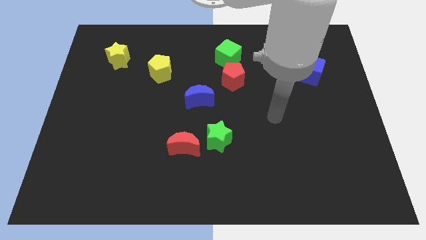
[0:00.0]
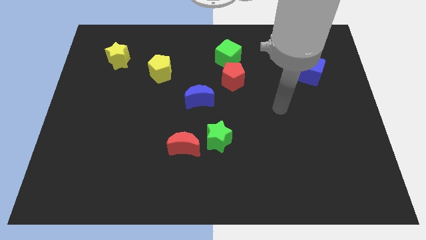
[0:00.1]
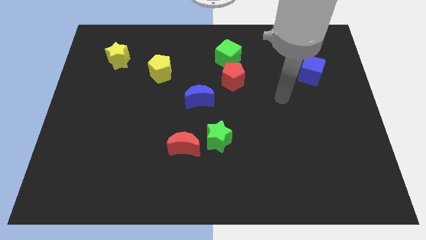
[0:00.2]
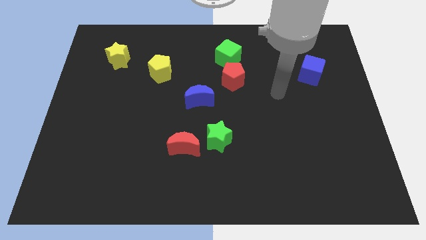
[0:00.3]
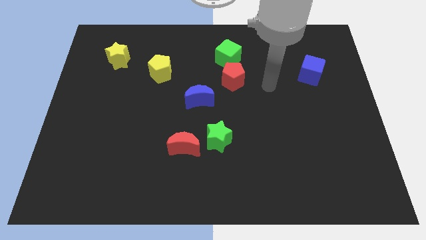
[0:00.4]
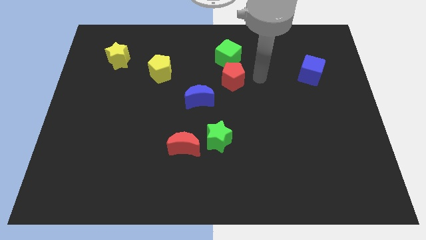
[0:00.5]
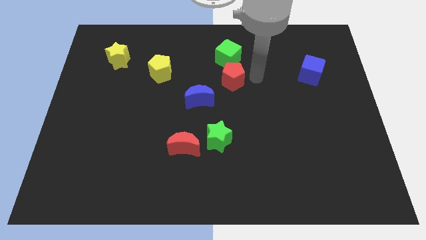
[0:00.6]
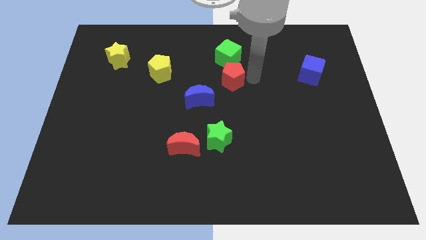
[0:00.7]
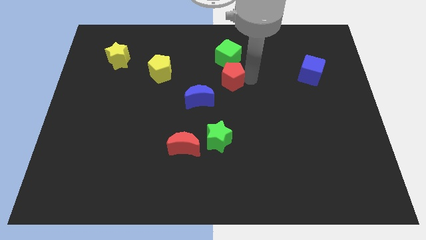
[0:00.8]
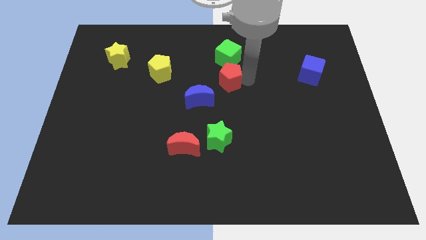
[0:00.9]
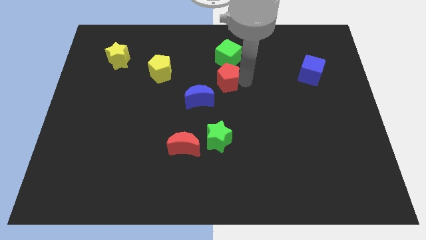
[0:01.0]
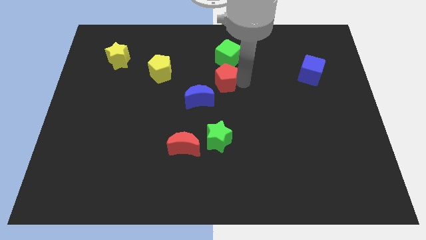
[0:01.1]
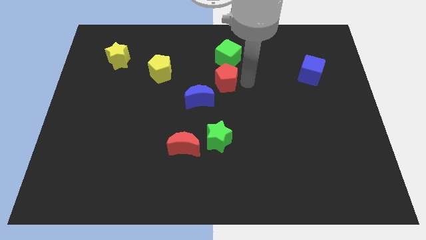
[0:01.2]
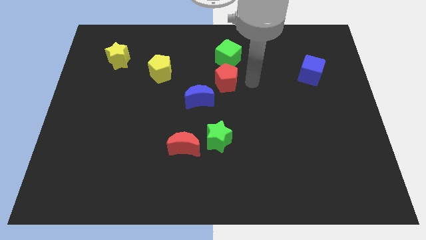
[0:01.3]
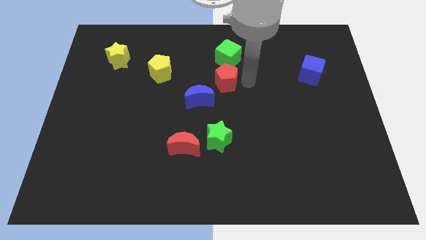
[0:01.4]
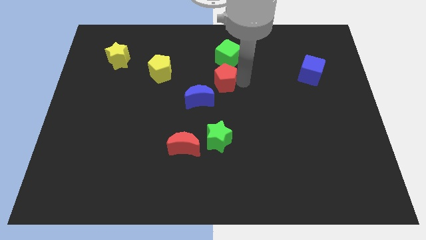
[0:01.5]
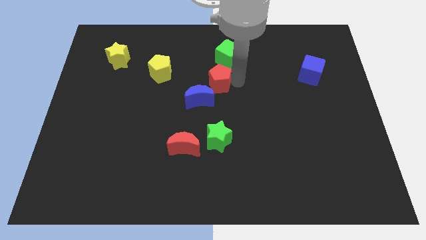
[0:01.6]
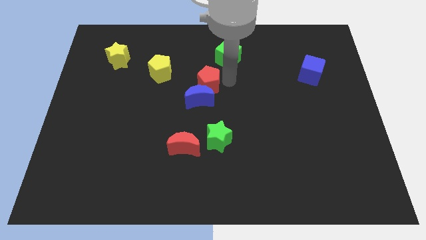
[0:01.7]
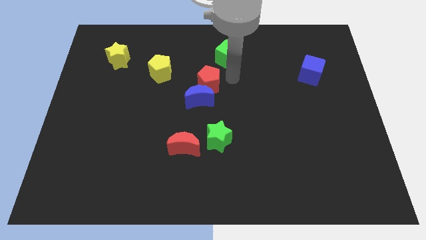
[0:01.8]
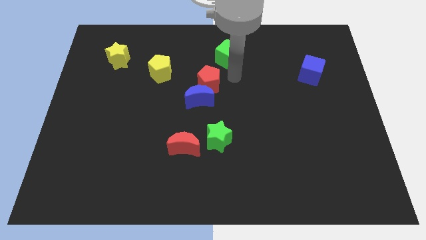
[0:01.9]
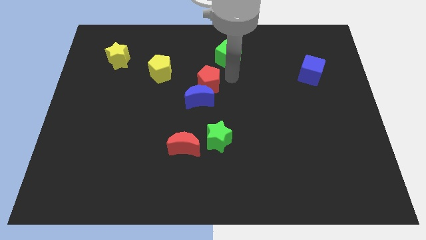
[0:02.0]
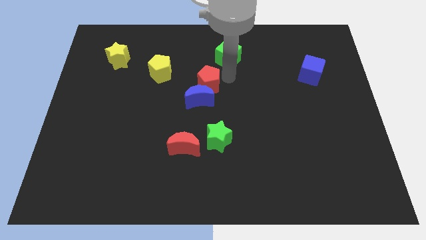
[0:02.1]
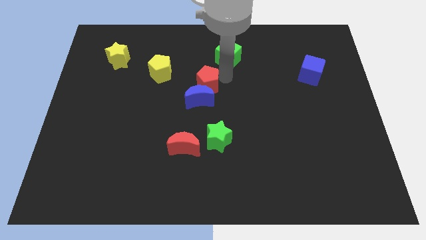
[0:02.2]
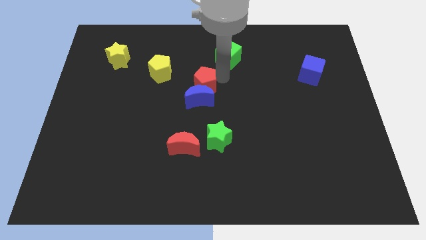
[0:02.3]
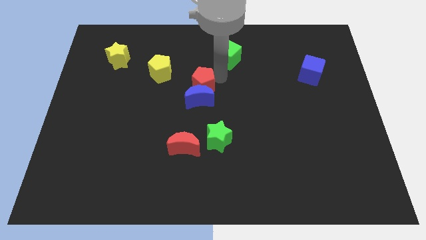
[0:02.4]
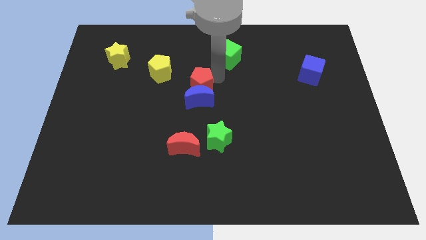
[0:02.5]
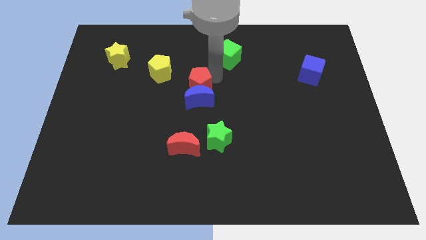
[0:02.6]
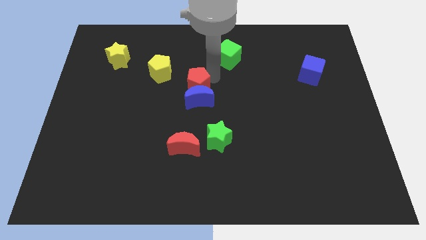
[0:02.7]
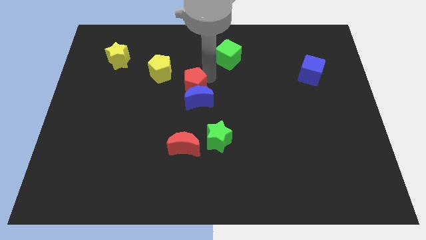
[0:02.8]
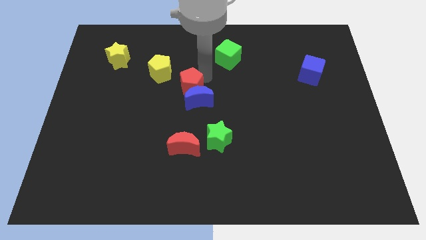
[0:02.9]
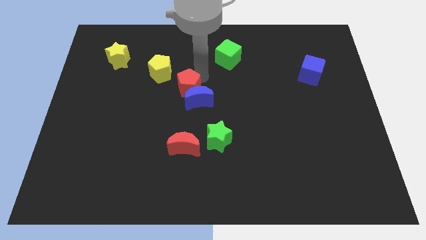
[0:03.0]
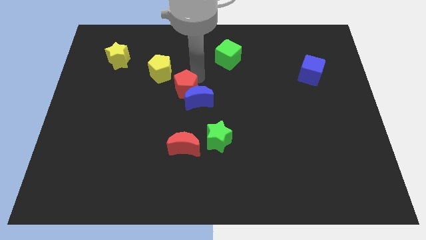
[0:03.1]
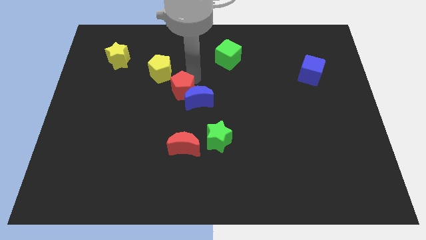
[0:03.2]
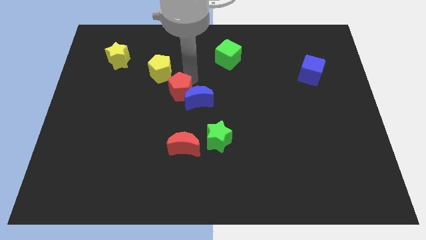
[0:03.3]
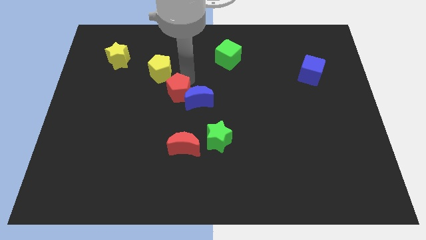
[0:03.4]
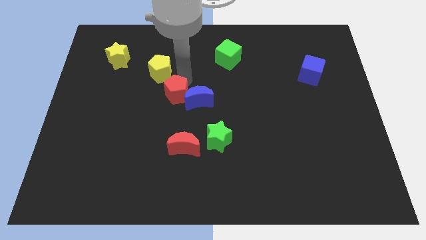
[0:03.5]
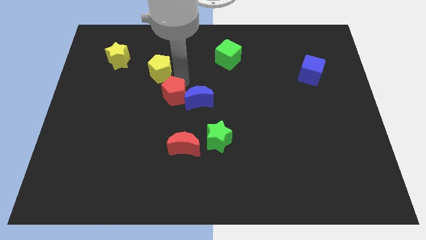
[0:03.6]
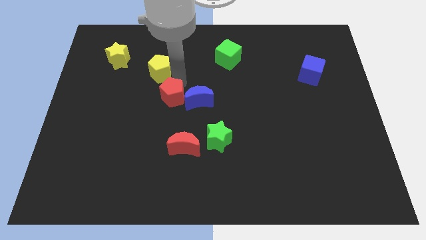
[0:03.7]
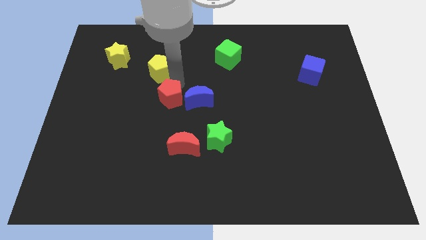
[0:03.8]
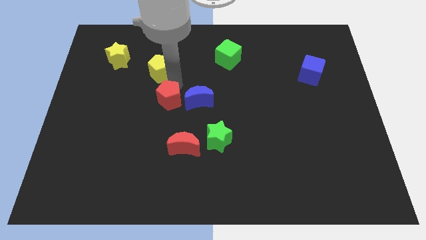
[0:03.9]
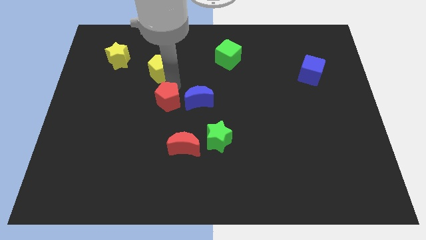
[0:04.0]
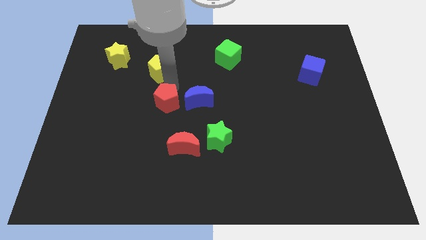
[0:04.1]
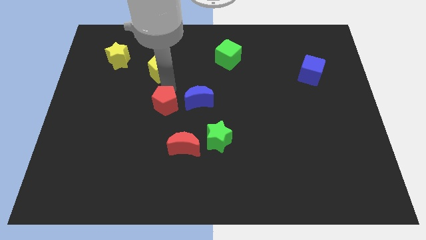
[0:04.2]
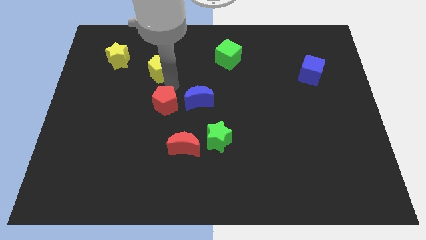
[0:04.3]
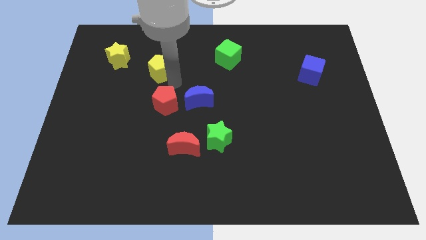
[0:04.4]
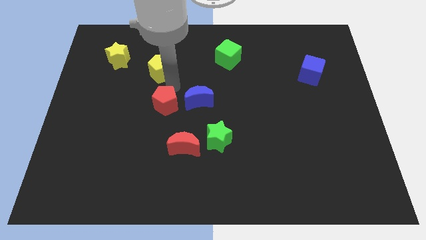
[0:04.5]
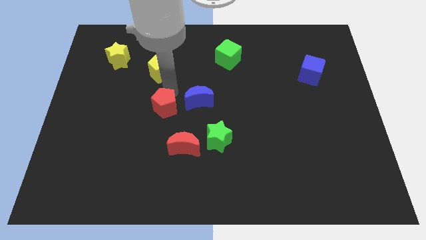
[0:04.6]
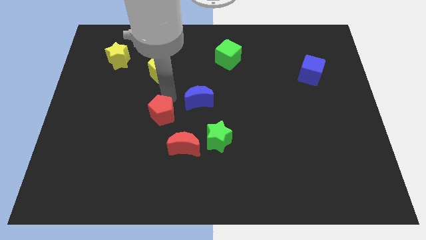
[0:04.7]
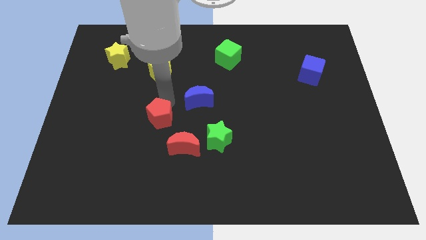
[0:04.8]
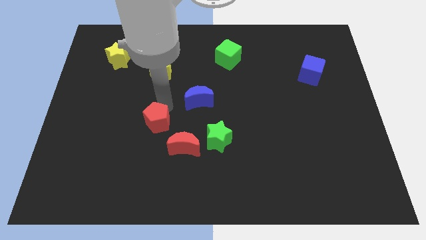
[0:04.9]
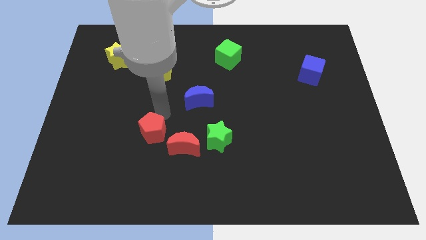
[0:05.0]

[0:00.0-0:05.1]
put the red pentagon just left of the red moon

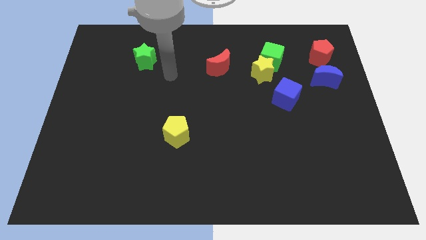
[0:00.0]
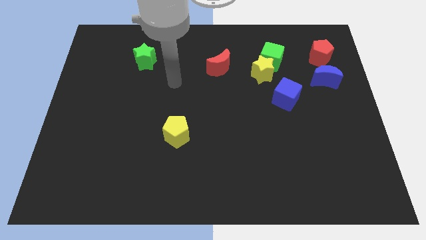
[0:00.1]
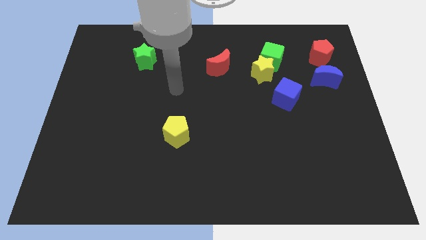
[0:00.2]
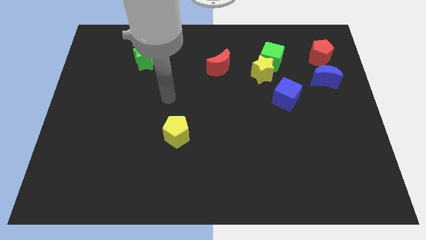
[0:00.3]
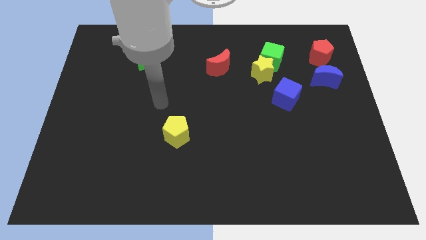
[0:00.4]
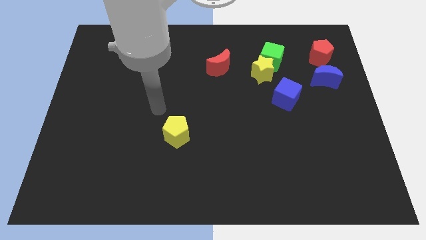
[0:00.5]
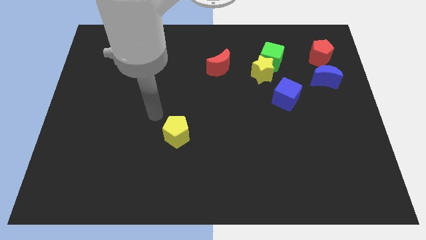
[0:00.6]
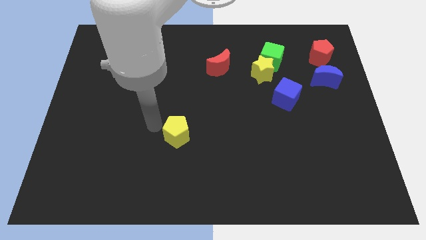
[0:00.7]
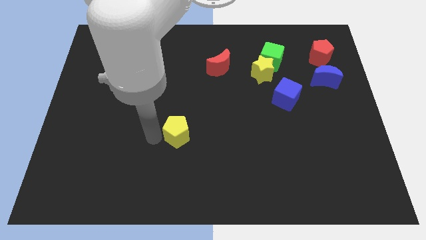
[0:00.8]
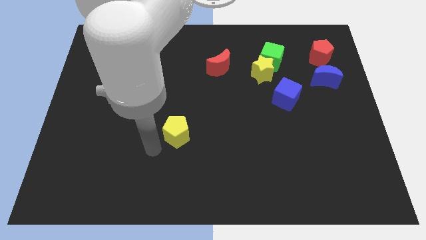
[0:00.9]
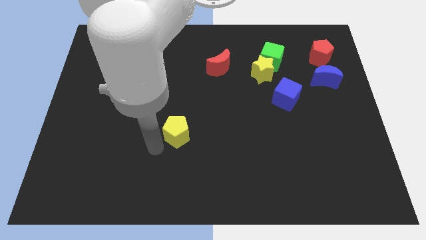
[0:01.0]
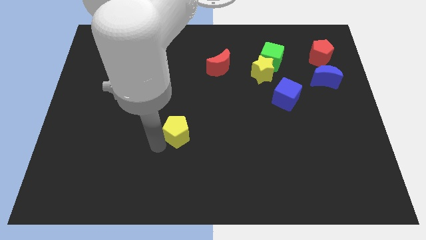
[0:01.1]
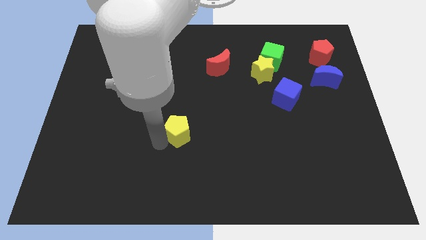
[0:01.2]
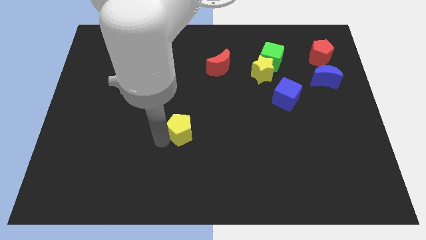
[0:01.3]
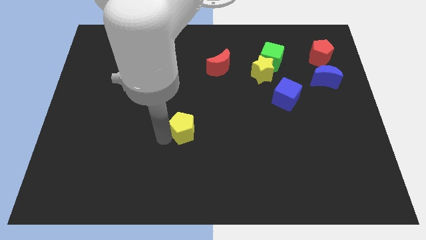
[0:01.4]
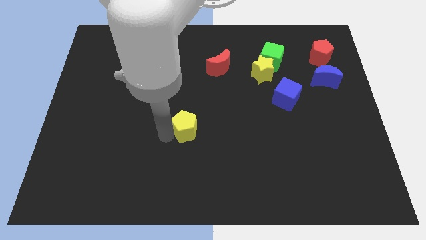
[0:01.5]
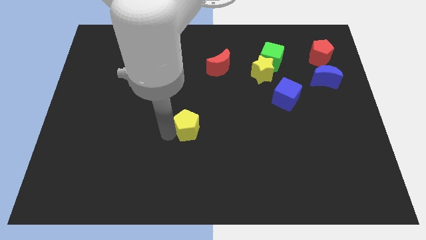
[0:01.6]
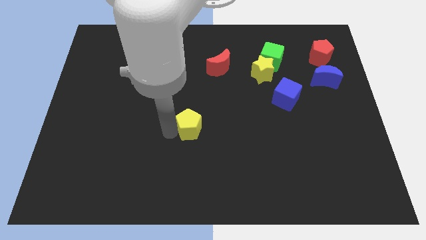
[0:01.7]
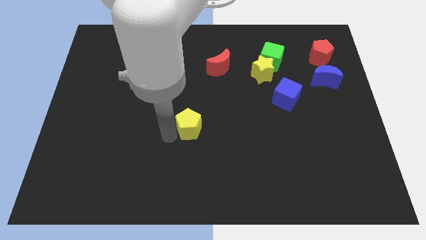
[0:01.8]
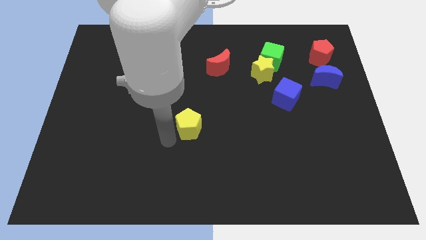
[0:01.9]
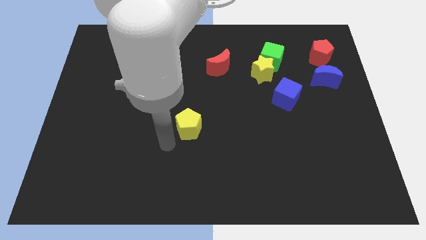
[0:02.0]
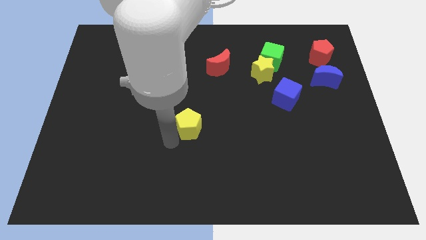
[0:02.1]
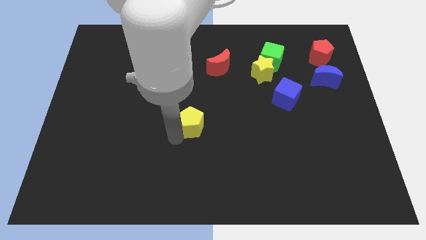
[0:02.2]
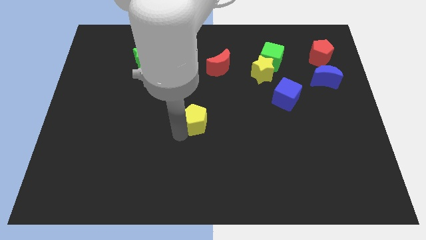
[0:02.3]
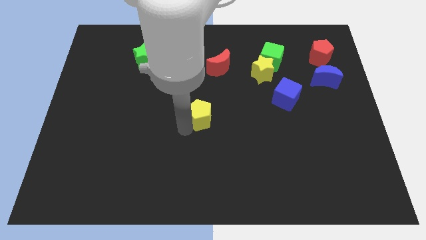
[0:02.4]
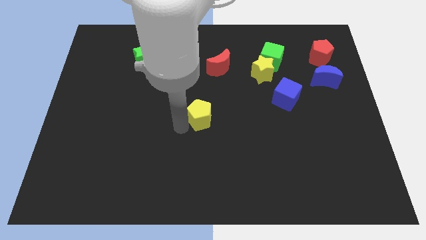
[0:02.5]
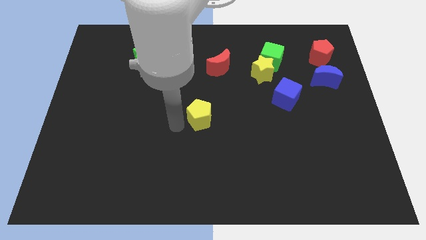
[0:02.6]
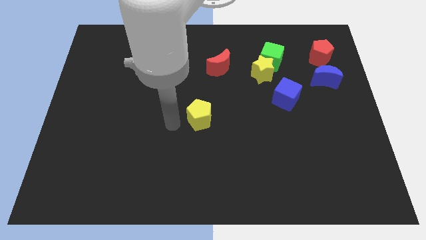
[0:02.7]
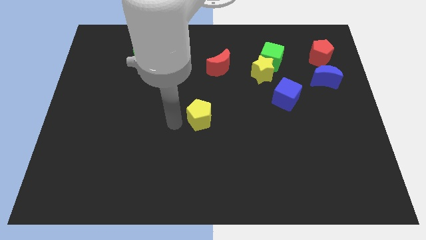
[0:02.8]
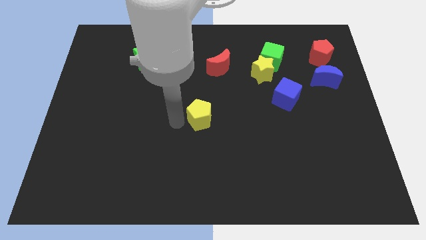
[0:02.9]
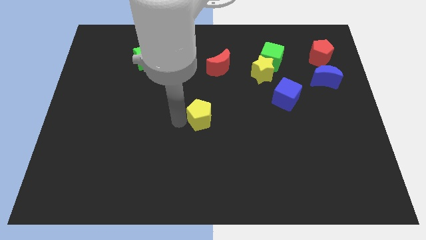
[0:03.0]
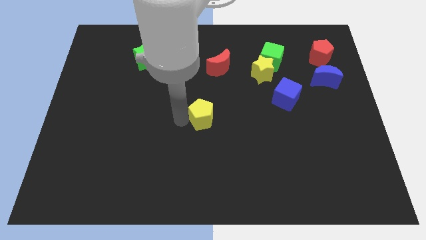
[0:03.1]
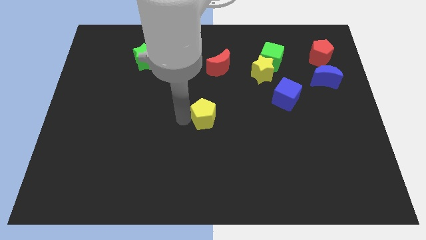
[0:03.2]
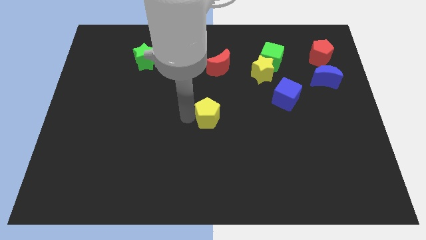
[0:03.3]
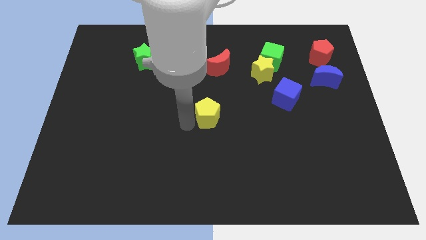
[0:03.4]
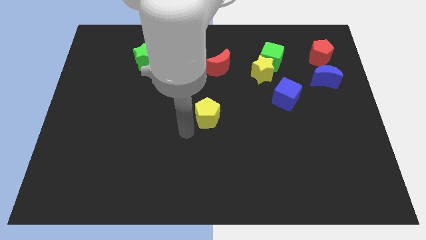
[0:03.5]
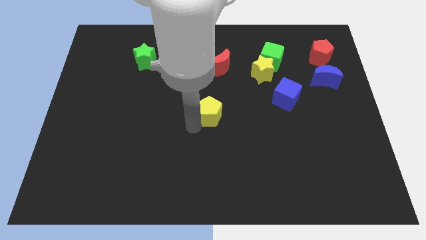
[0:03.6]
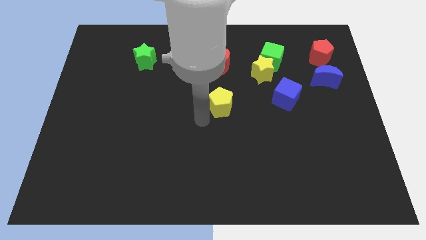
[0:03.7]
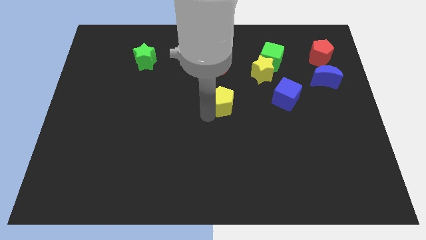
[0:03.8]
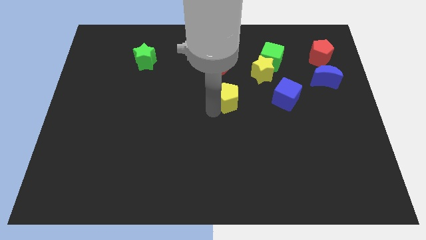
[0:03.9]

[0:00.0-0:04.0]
push the yellow pentagon to the bottom left of the yellow star
